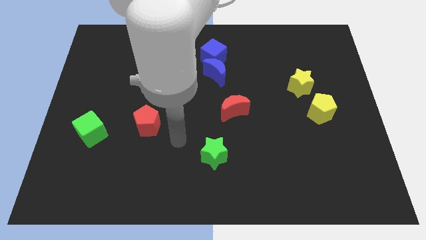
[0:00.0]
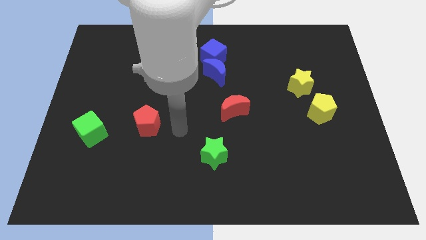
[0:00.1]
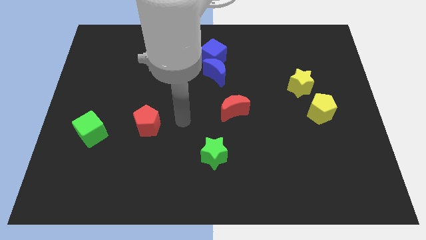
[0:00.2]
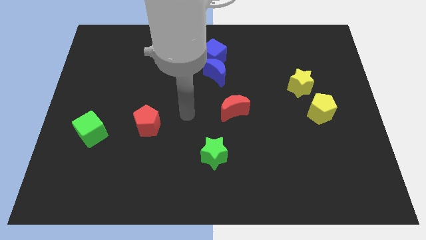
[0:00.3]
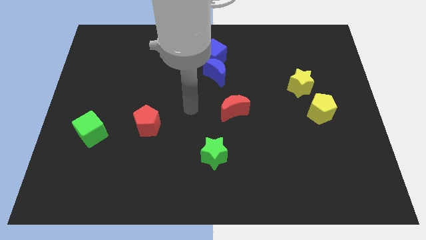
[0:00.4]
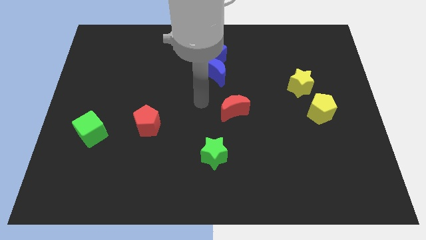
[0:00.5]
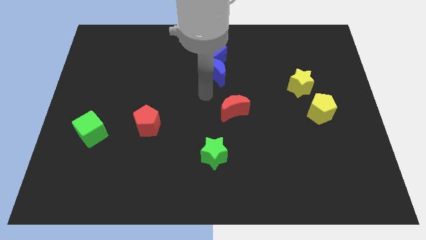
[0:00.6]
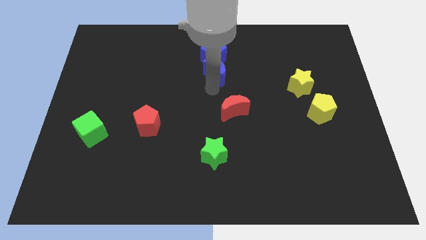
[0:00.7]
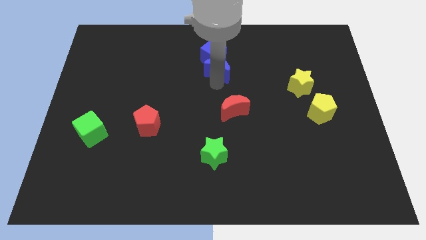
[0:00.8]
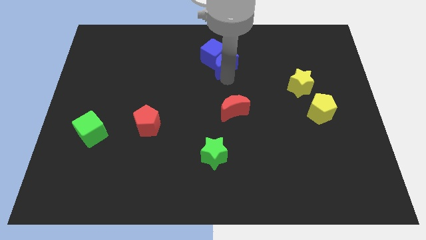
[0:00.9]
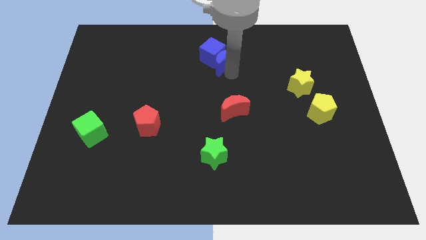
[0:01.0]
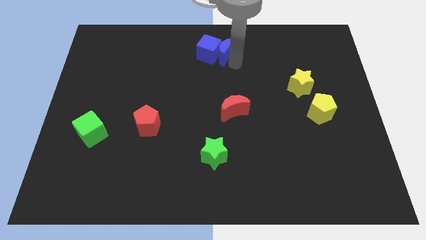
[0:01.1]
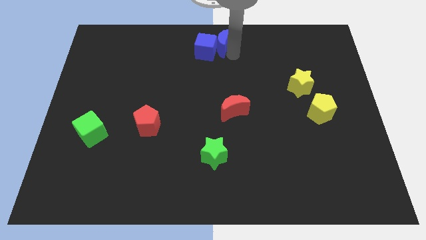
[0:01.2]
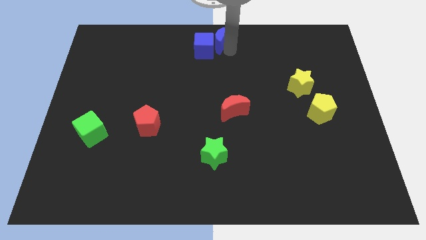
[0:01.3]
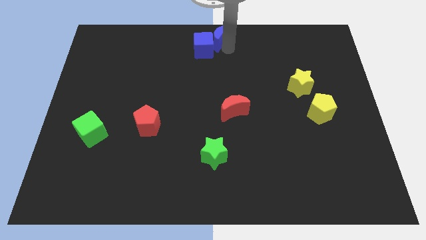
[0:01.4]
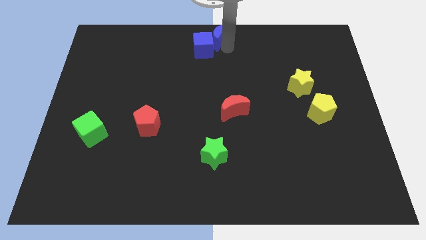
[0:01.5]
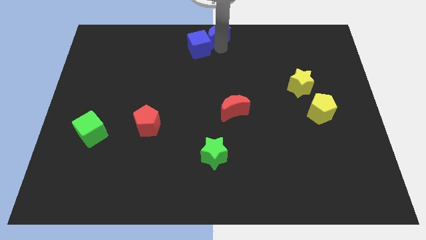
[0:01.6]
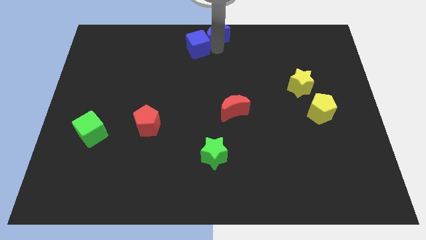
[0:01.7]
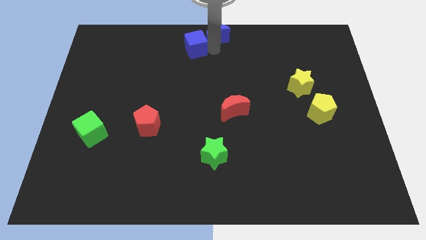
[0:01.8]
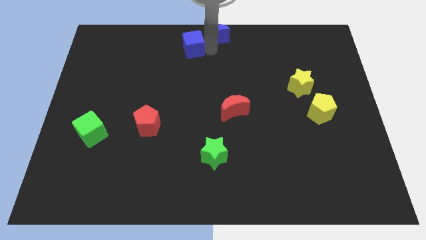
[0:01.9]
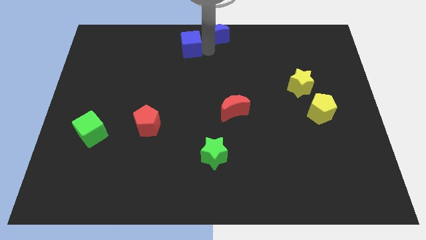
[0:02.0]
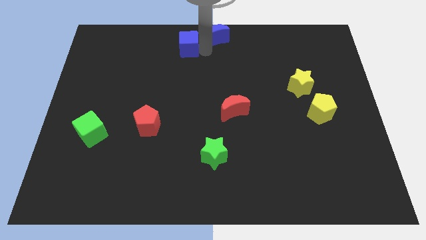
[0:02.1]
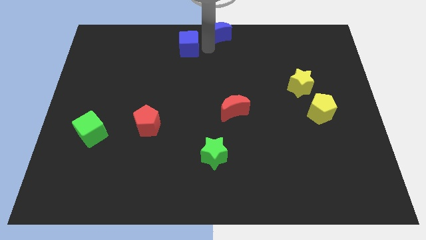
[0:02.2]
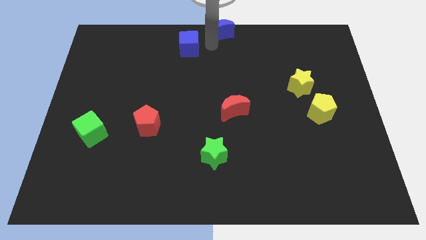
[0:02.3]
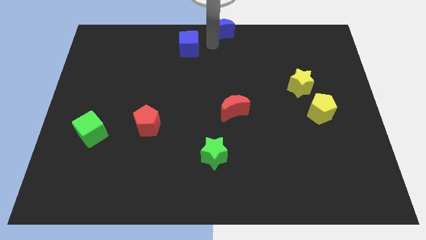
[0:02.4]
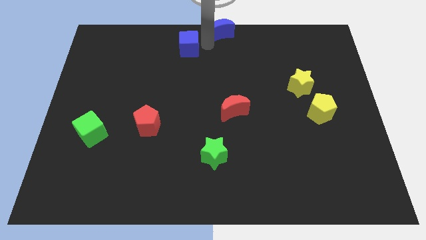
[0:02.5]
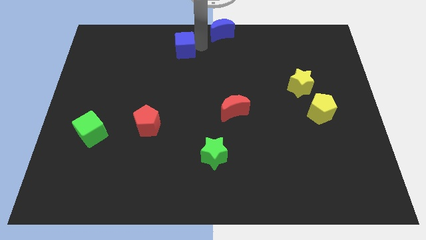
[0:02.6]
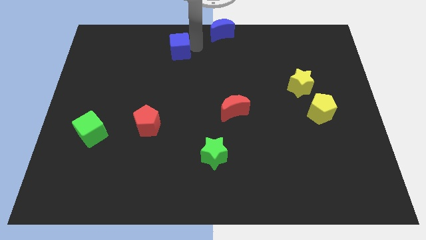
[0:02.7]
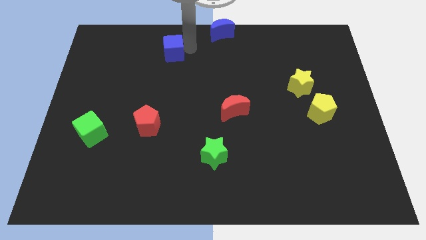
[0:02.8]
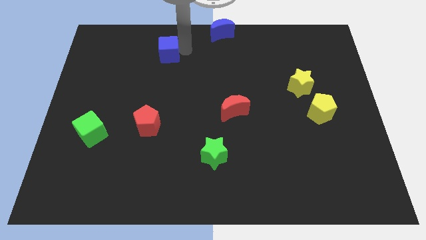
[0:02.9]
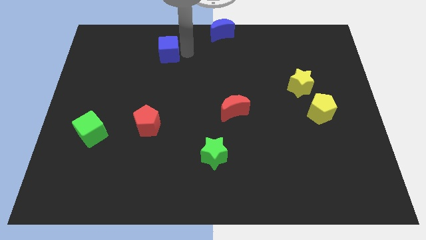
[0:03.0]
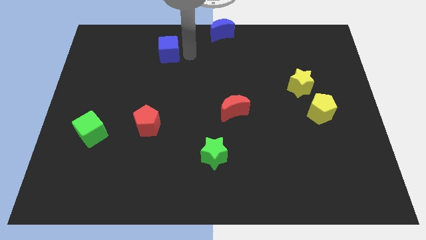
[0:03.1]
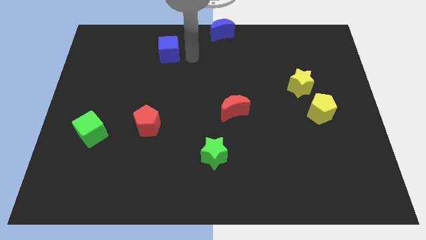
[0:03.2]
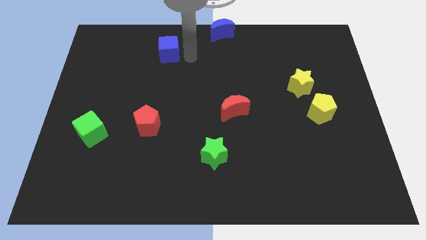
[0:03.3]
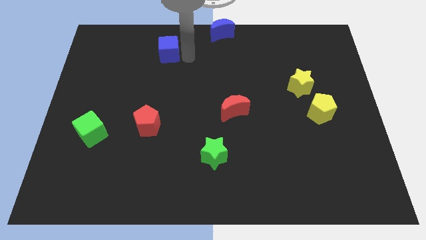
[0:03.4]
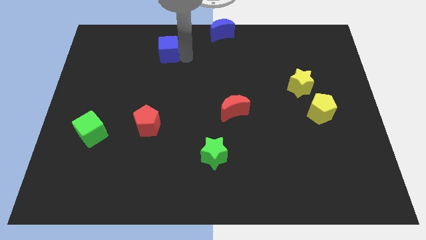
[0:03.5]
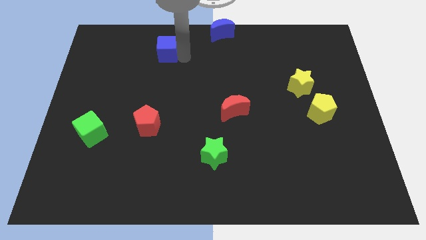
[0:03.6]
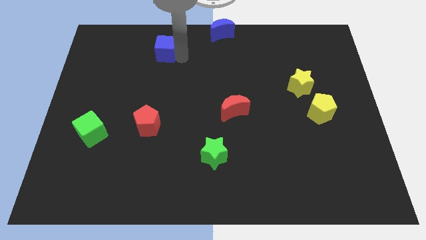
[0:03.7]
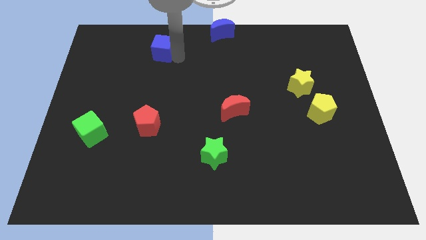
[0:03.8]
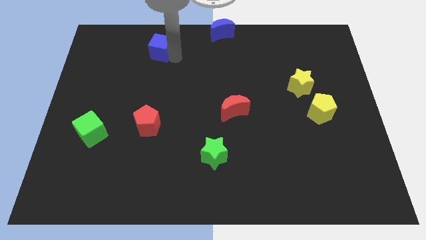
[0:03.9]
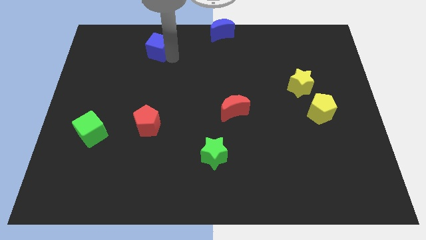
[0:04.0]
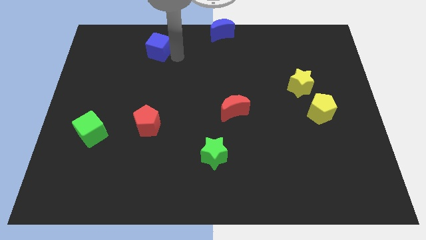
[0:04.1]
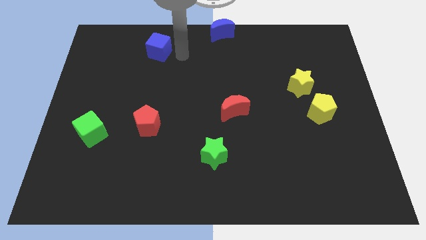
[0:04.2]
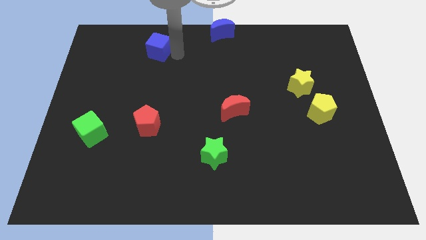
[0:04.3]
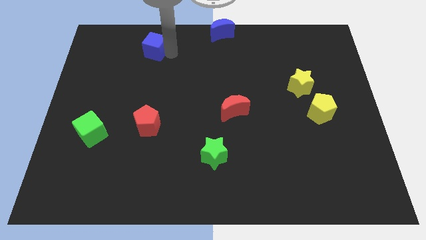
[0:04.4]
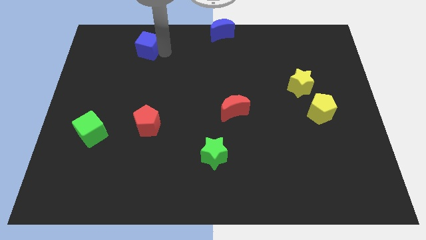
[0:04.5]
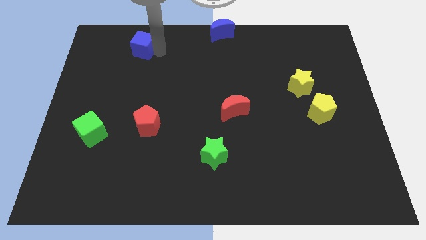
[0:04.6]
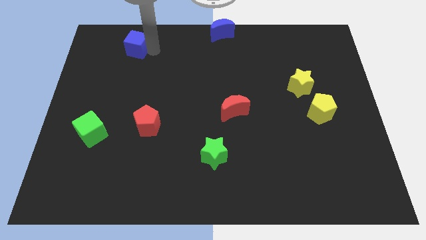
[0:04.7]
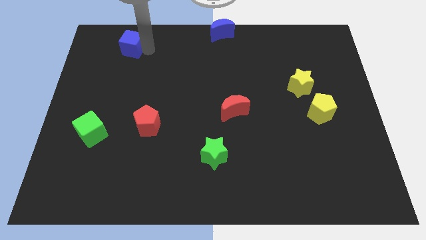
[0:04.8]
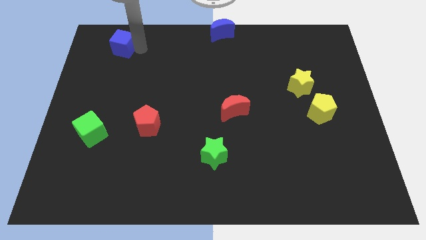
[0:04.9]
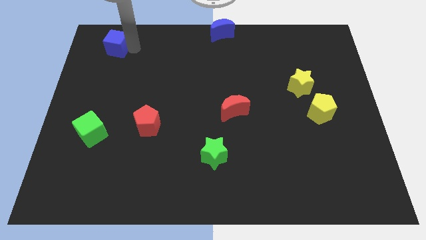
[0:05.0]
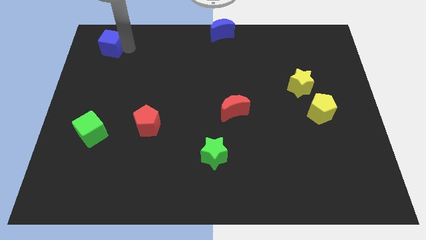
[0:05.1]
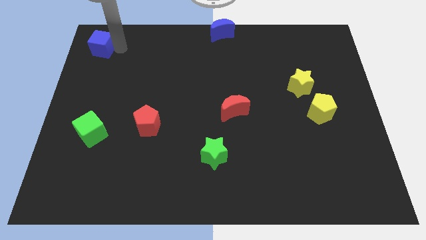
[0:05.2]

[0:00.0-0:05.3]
put the blue cube to the top left of the board

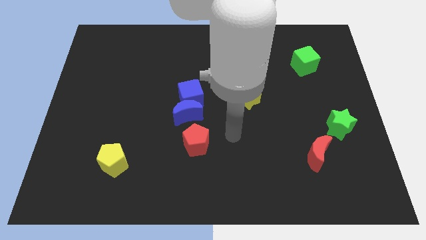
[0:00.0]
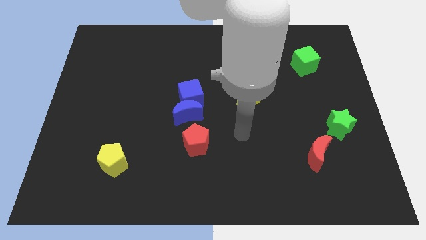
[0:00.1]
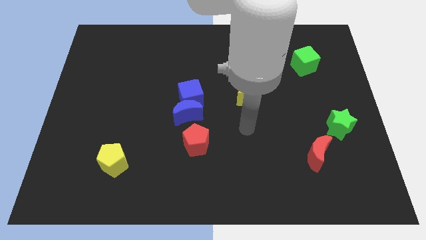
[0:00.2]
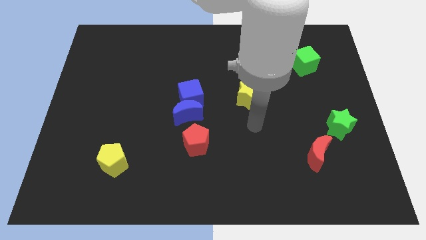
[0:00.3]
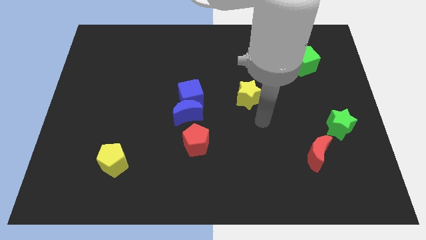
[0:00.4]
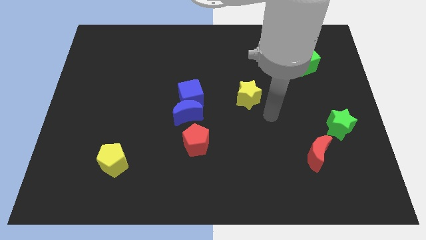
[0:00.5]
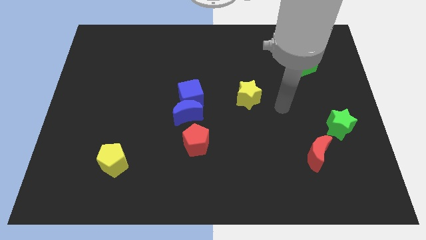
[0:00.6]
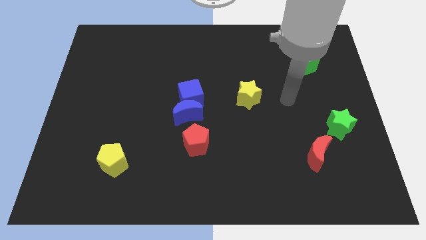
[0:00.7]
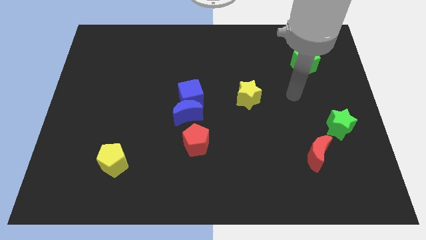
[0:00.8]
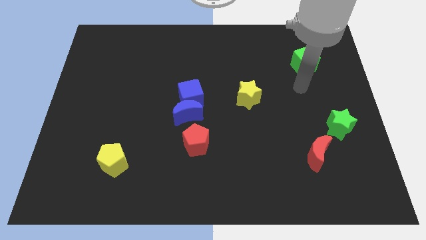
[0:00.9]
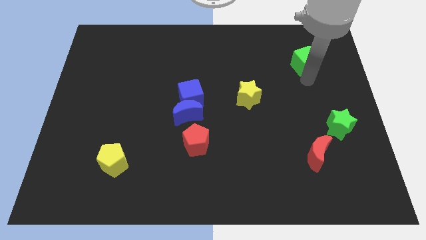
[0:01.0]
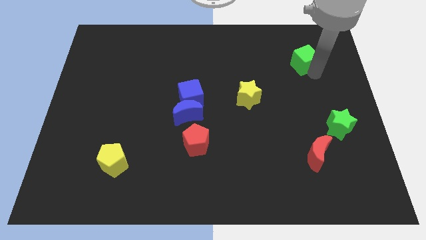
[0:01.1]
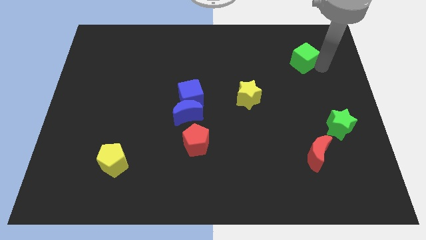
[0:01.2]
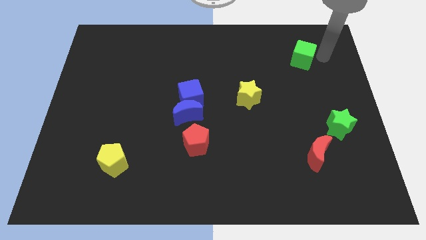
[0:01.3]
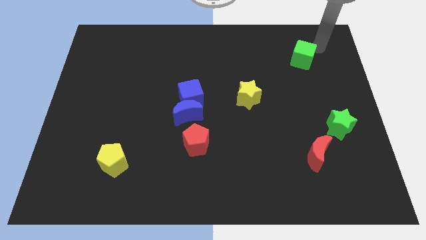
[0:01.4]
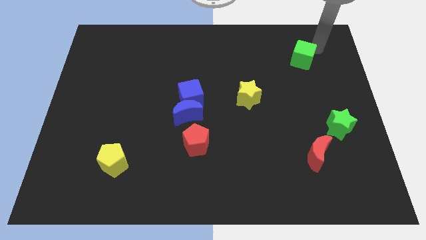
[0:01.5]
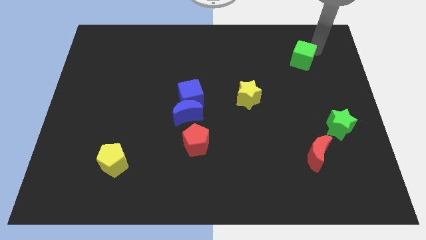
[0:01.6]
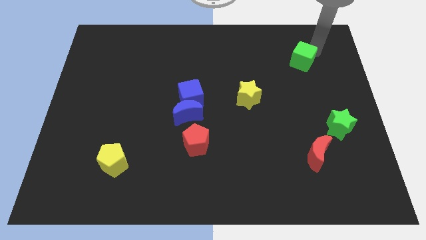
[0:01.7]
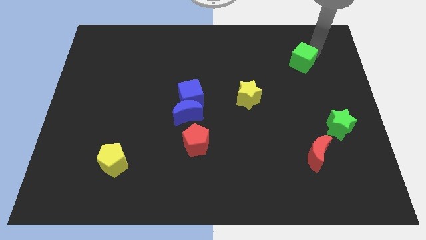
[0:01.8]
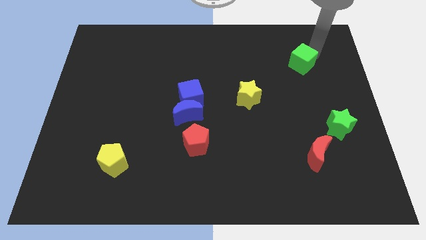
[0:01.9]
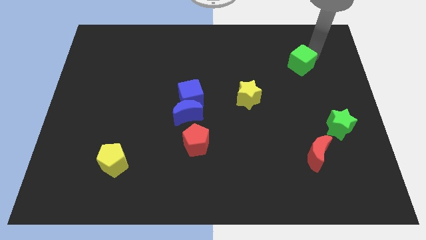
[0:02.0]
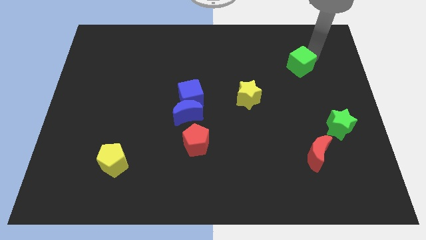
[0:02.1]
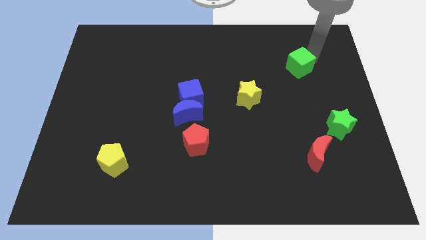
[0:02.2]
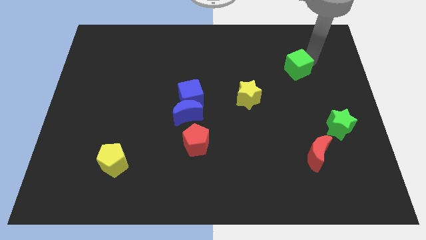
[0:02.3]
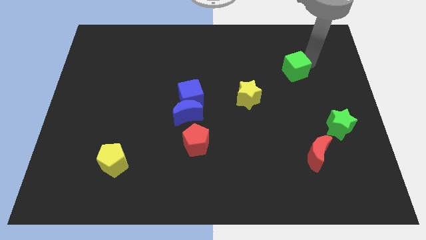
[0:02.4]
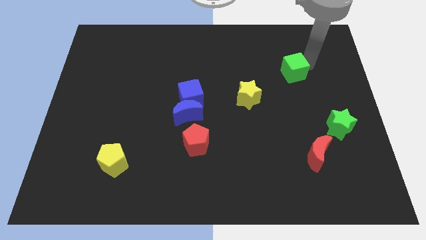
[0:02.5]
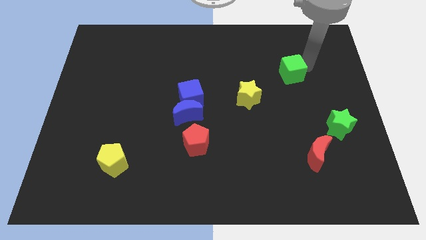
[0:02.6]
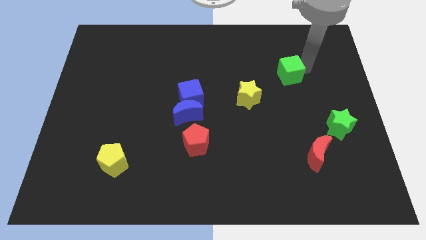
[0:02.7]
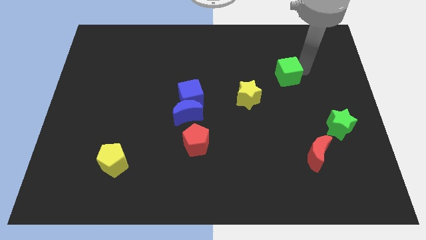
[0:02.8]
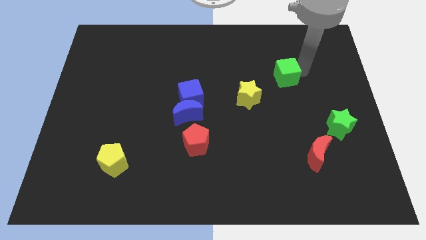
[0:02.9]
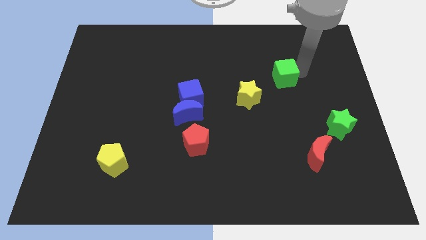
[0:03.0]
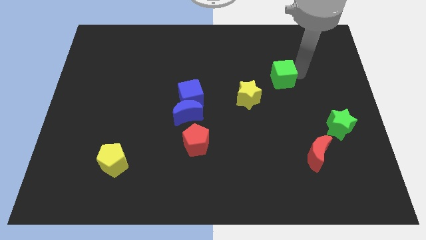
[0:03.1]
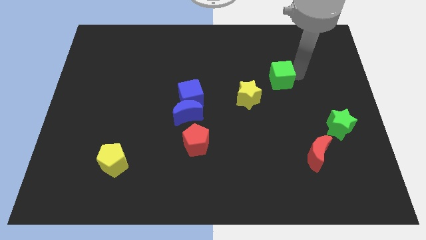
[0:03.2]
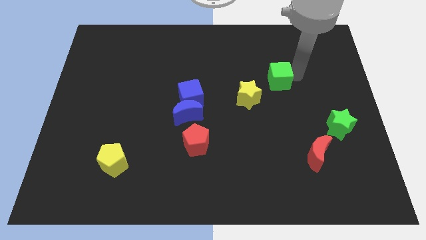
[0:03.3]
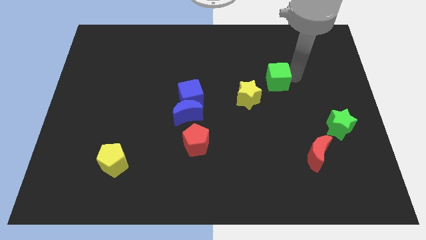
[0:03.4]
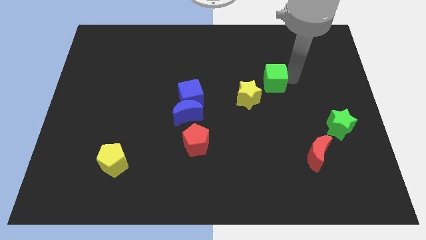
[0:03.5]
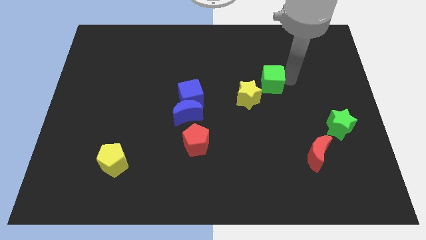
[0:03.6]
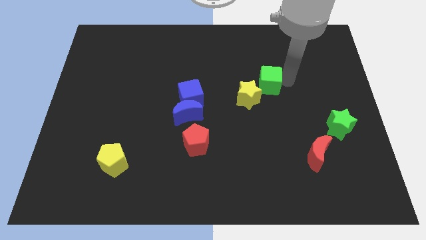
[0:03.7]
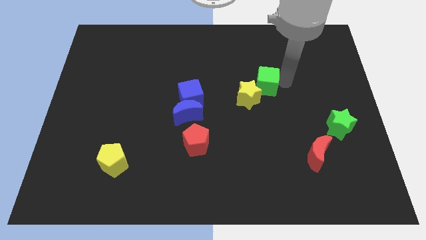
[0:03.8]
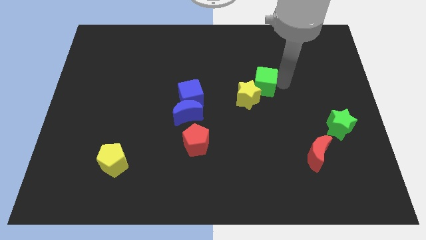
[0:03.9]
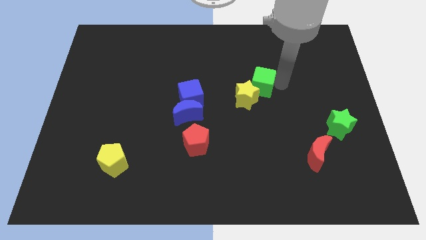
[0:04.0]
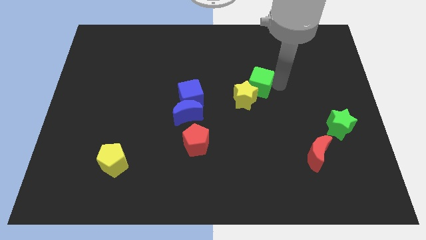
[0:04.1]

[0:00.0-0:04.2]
push the green cube to the middle of the board
